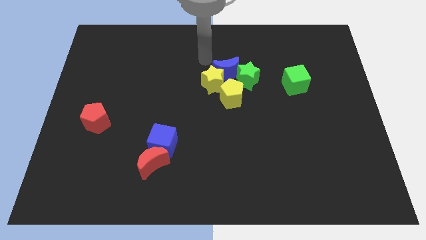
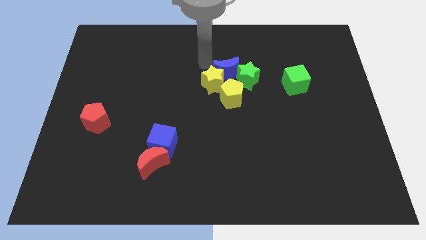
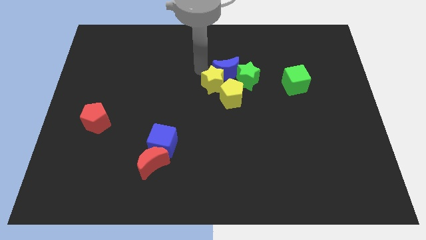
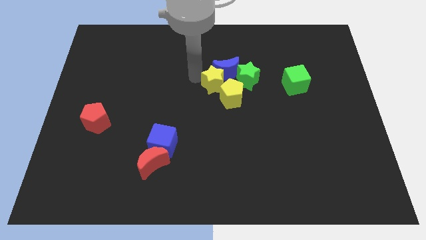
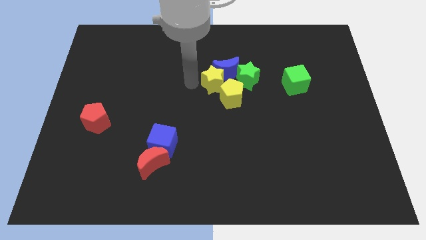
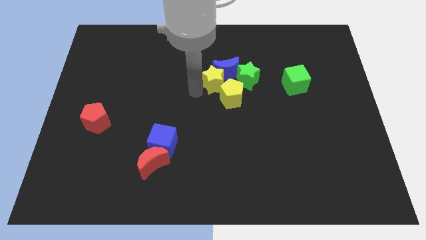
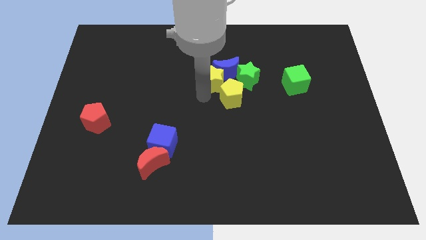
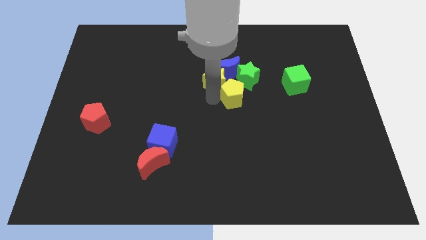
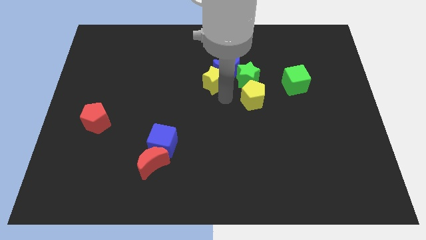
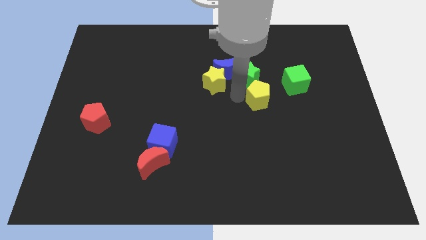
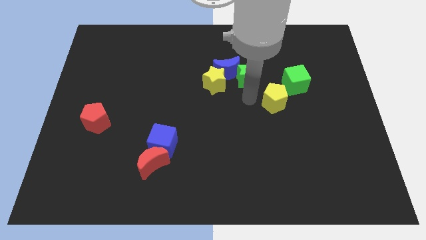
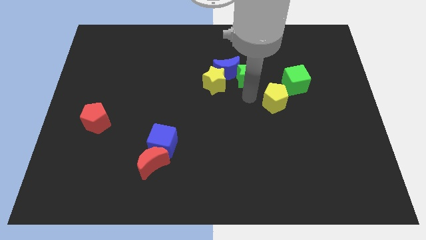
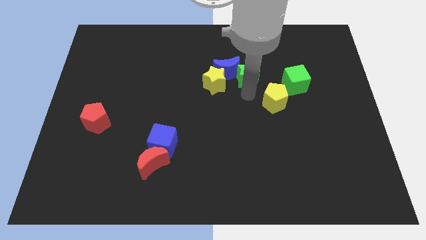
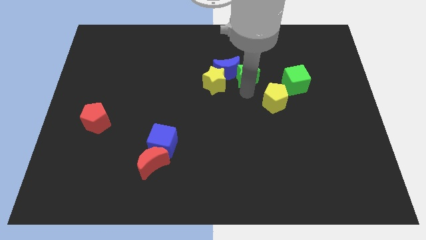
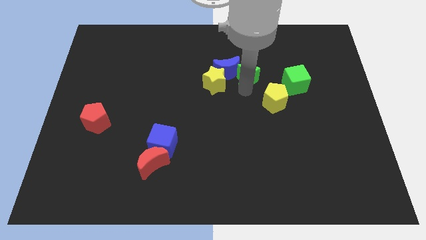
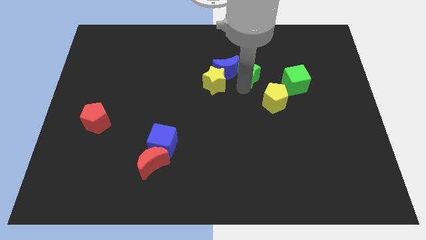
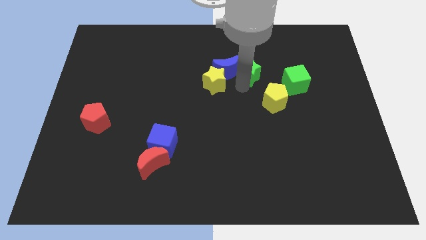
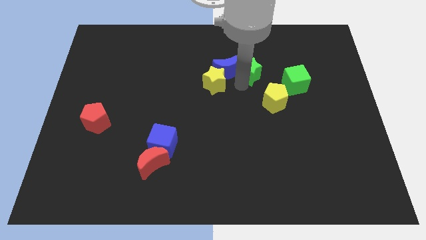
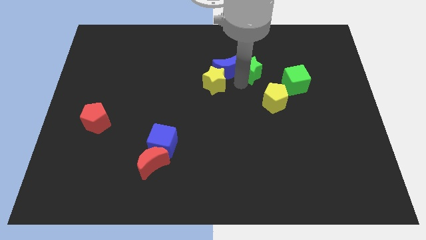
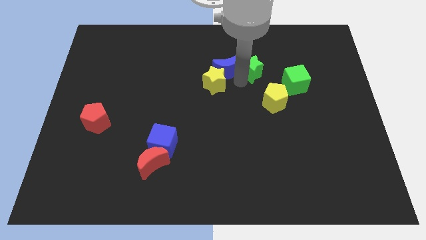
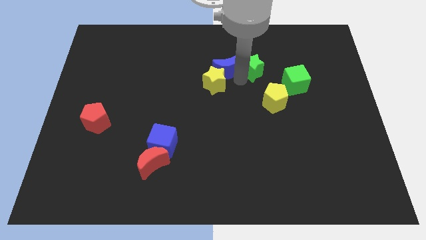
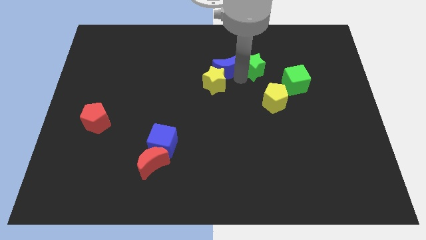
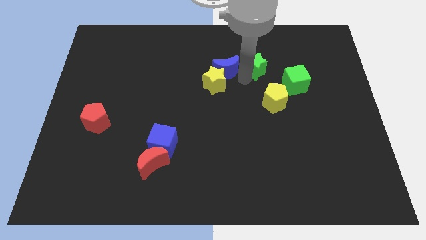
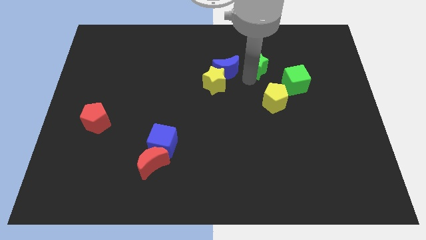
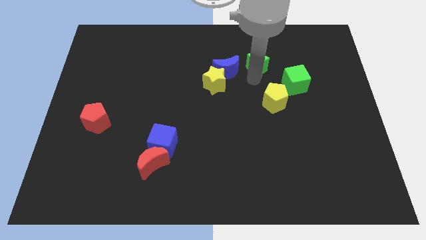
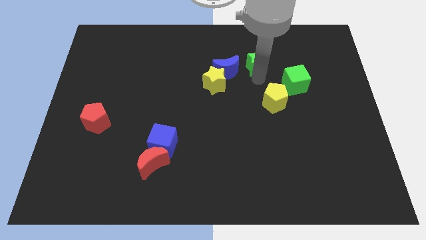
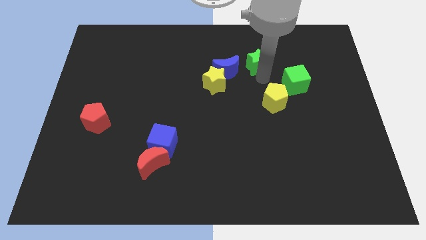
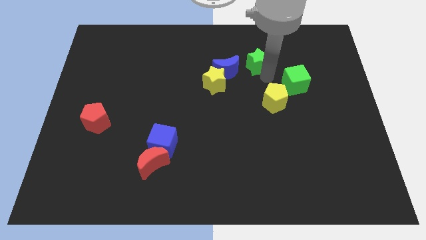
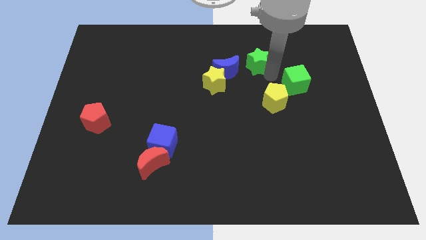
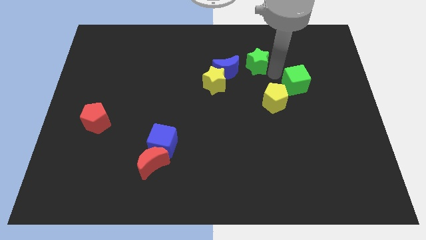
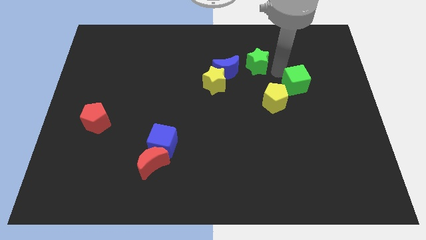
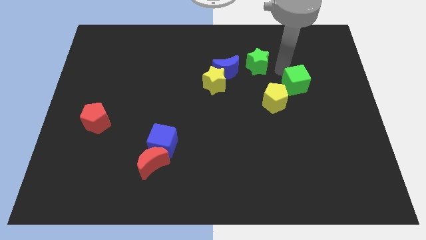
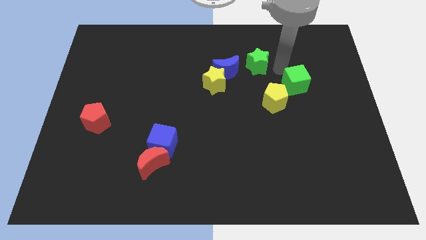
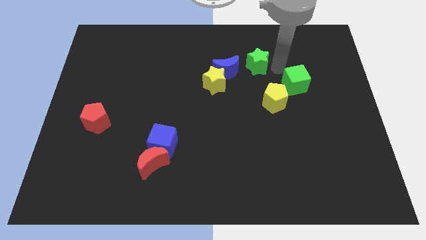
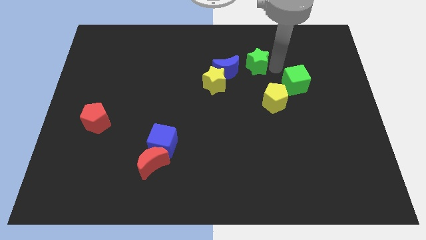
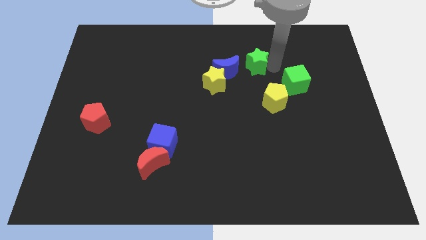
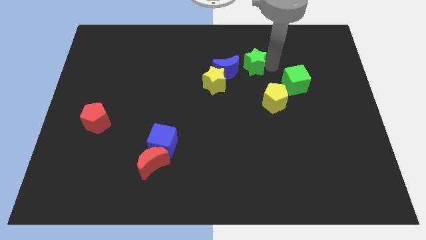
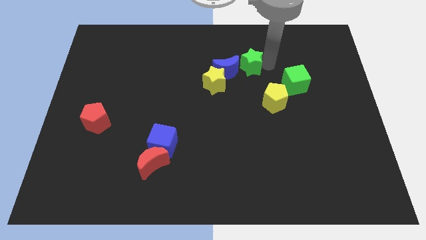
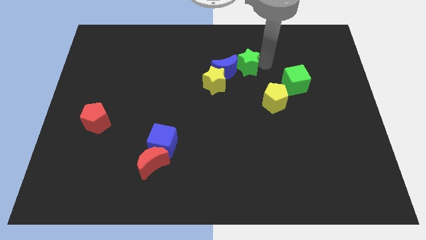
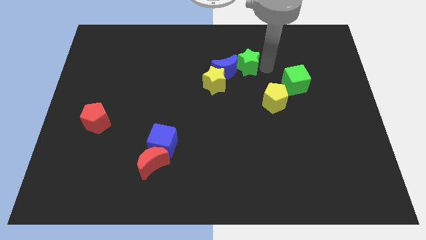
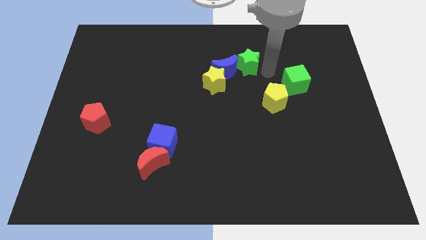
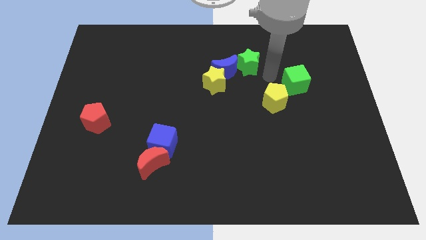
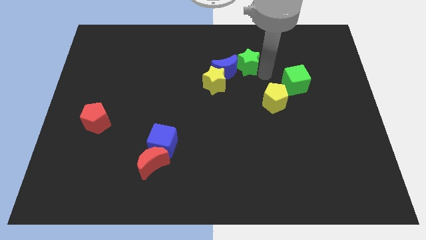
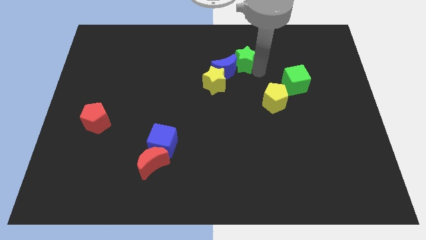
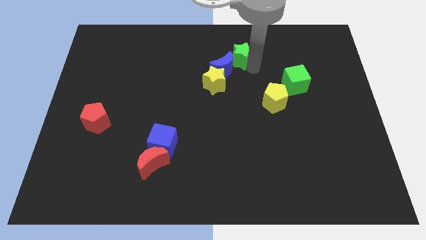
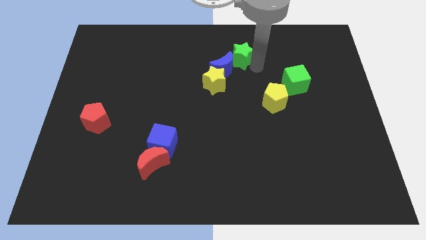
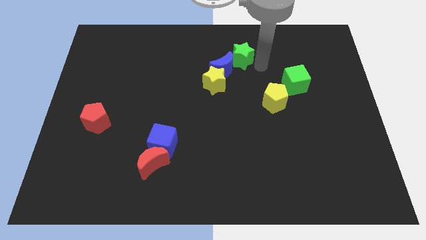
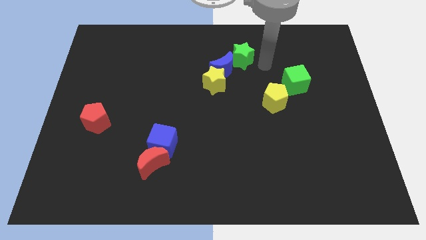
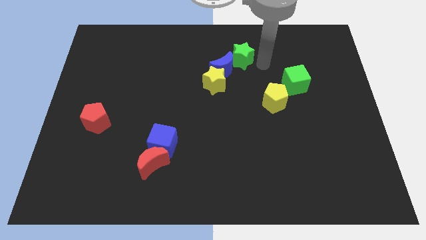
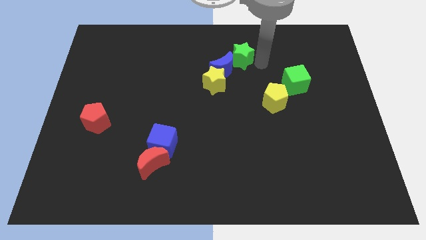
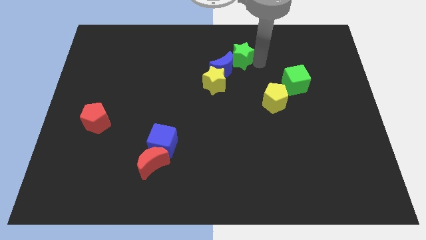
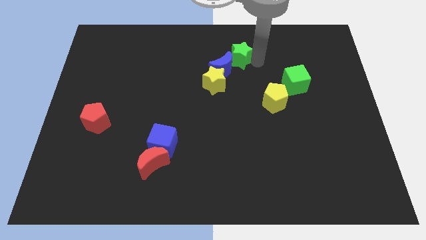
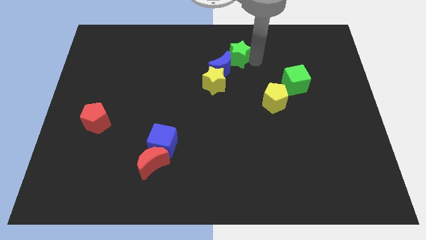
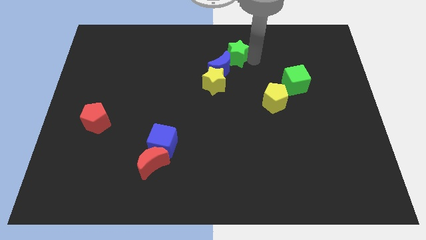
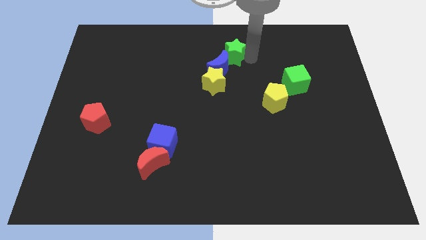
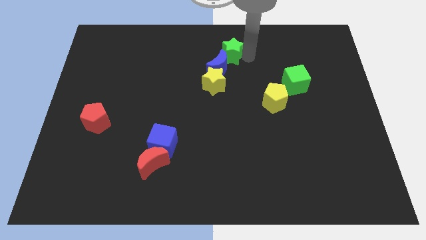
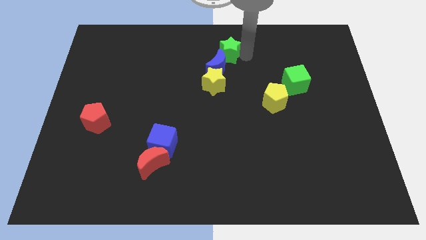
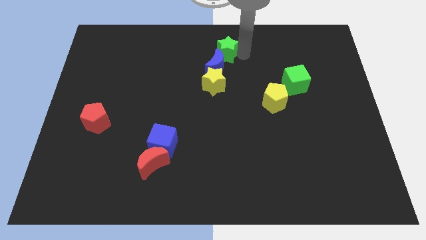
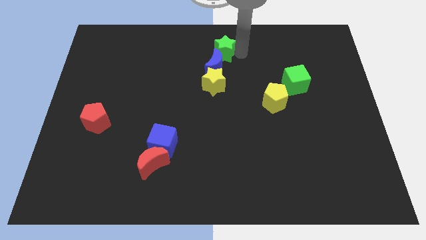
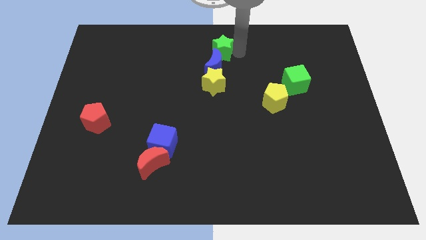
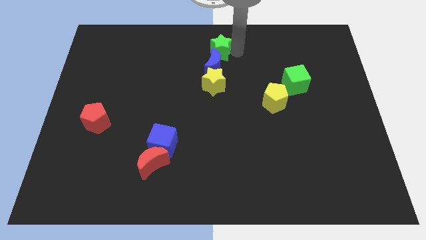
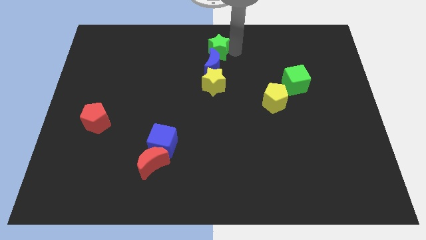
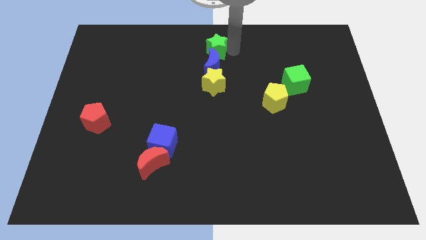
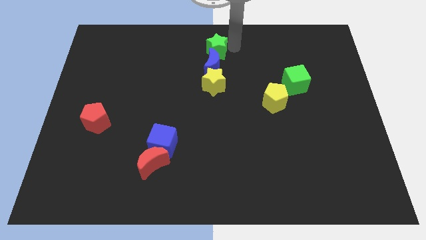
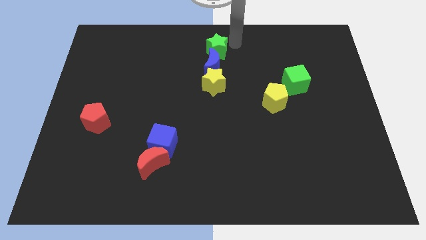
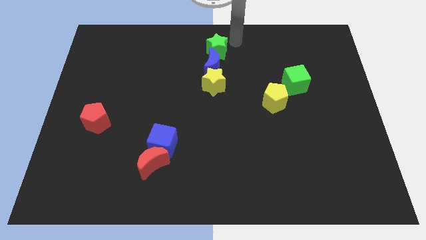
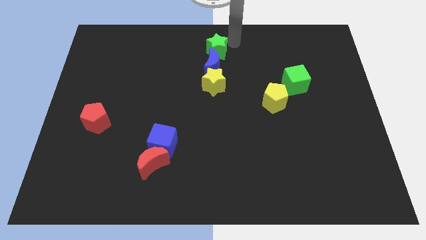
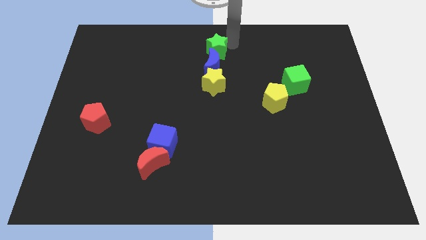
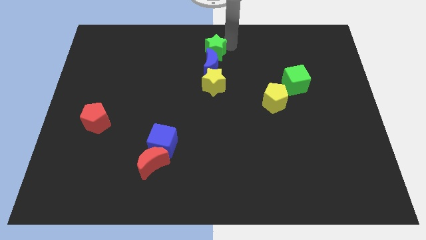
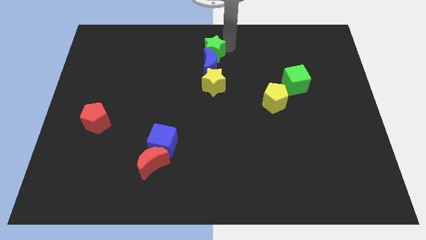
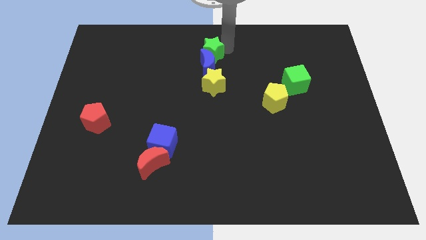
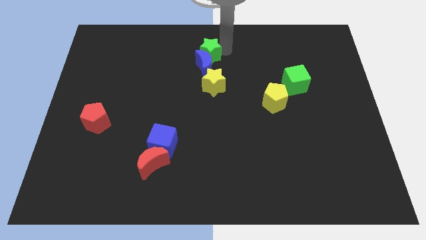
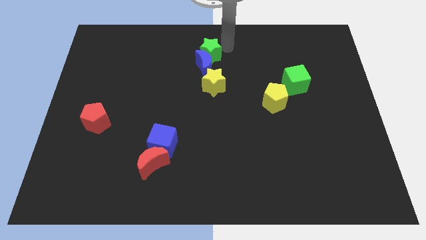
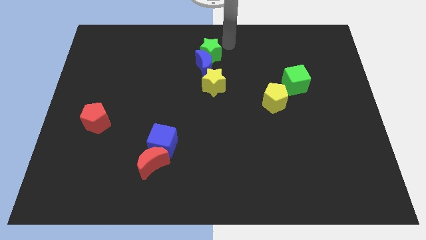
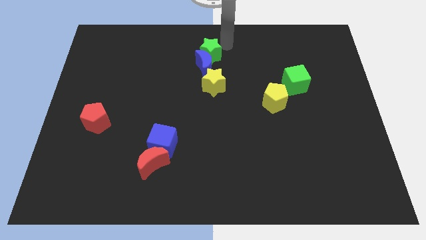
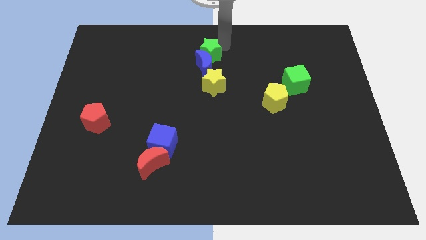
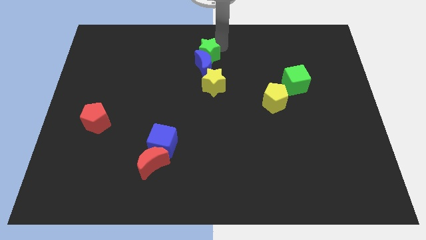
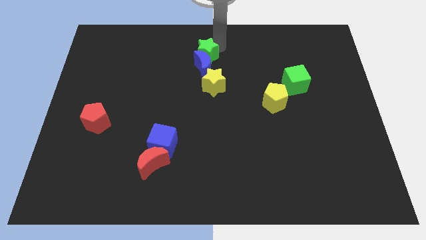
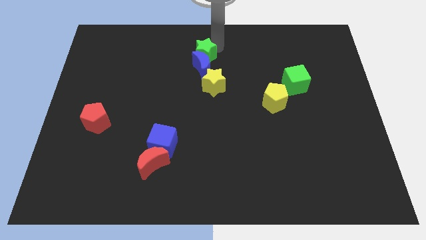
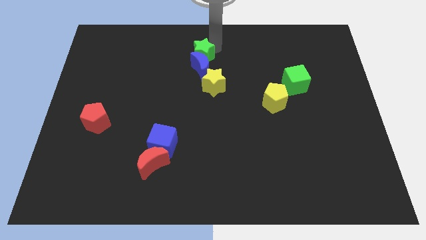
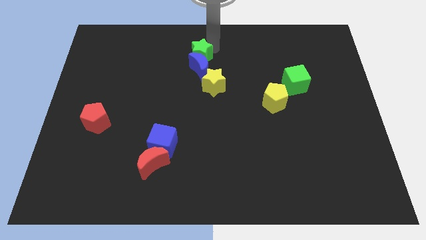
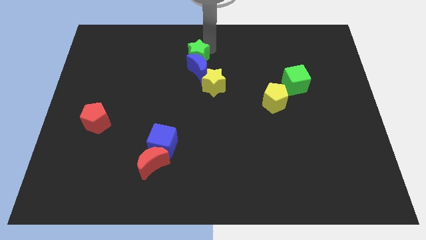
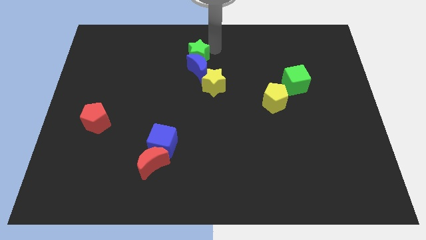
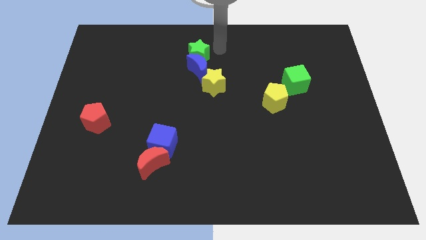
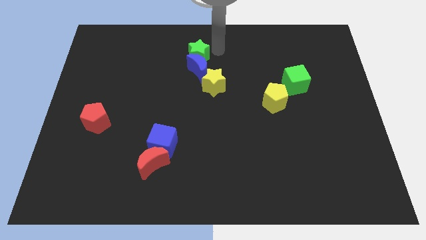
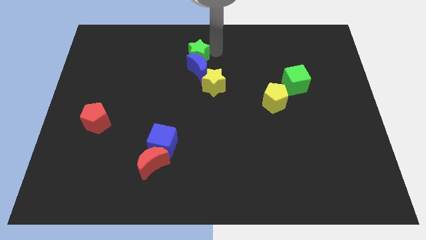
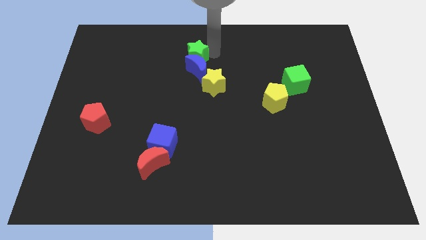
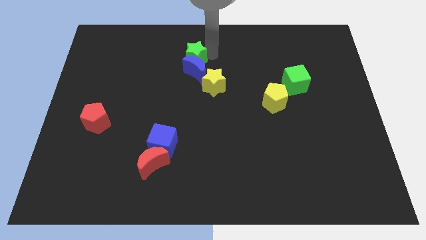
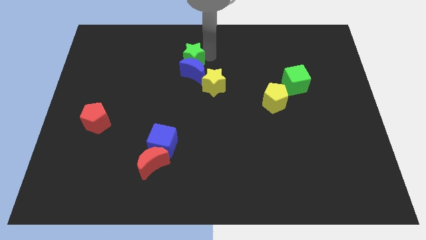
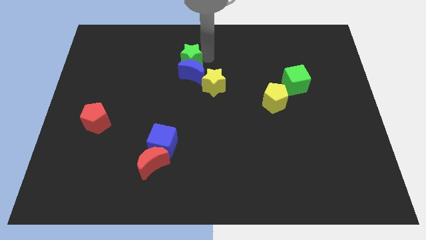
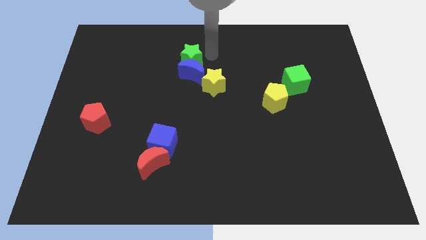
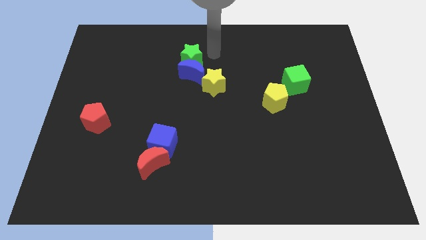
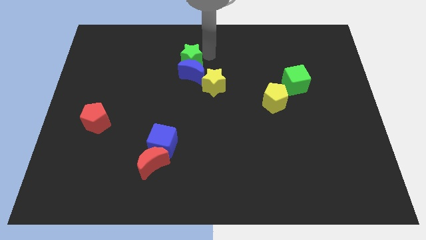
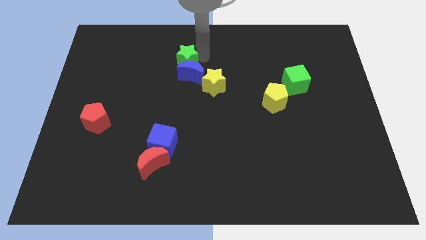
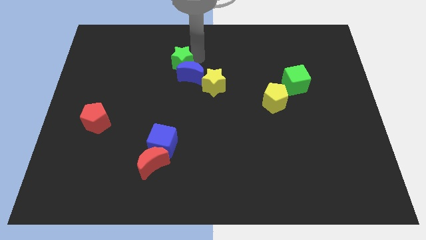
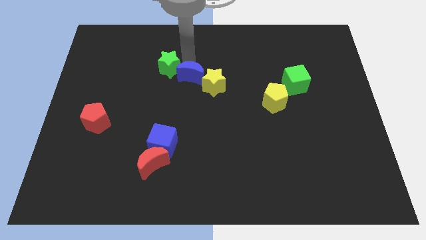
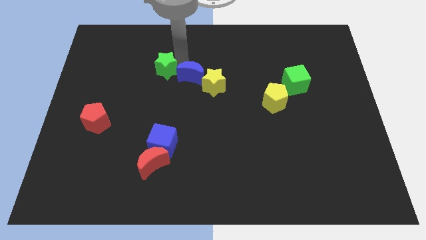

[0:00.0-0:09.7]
push the green star left
